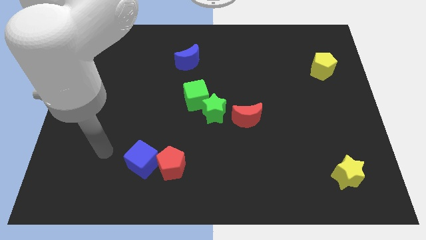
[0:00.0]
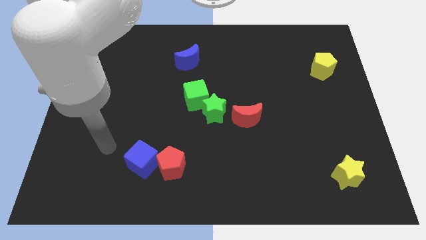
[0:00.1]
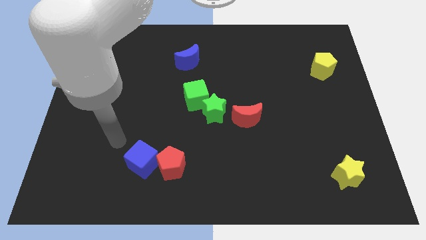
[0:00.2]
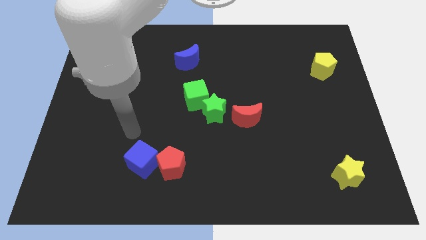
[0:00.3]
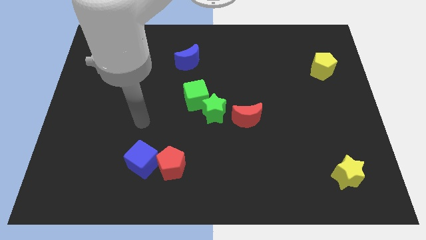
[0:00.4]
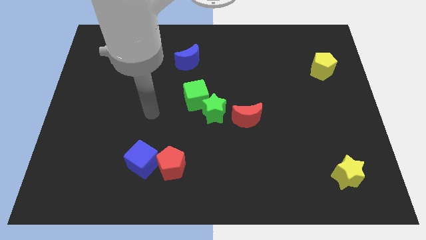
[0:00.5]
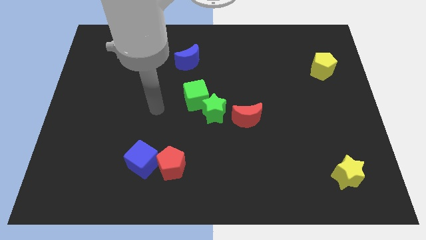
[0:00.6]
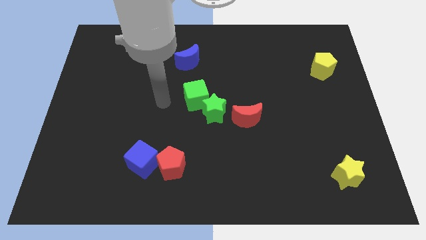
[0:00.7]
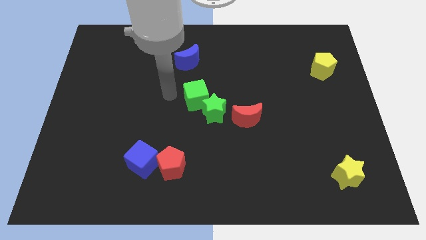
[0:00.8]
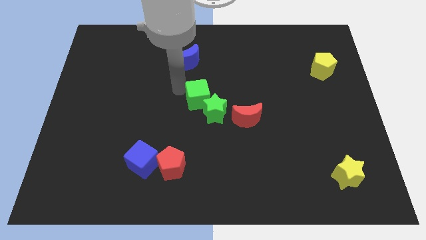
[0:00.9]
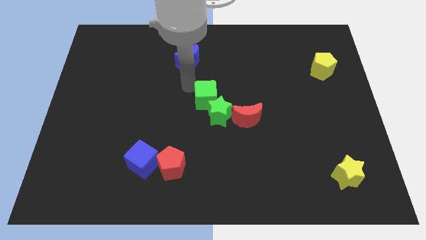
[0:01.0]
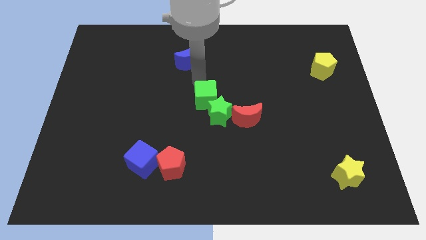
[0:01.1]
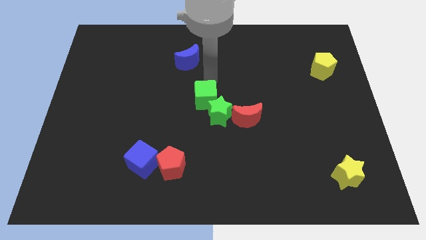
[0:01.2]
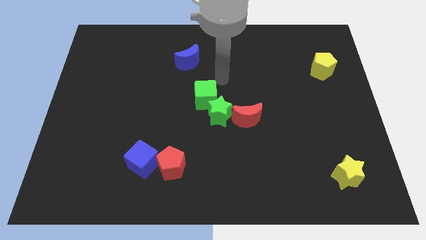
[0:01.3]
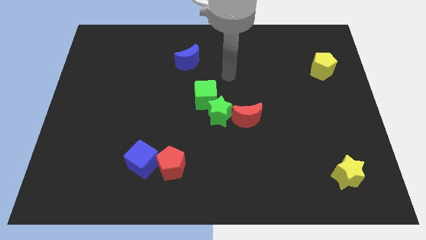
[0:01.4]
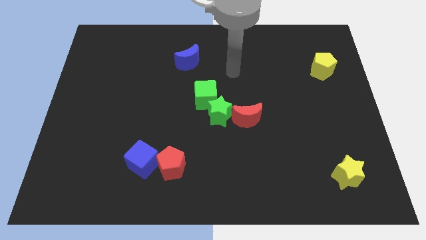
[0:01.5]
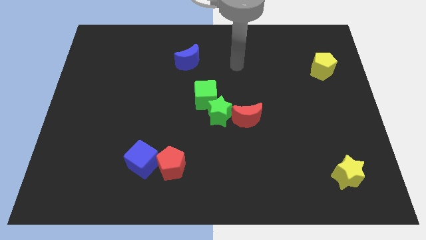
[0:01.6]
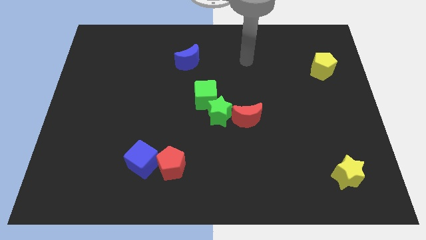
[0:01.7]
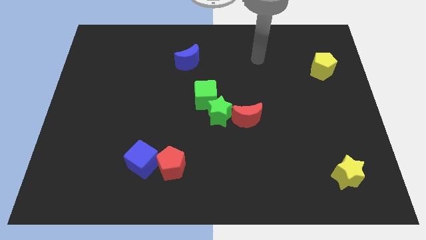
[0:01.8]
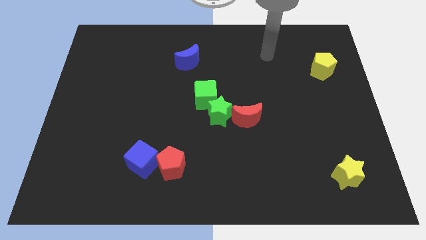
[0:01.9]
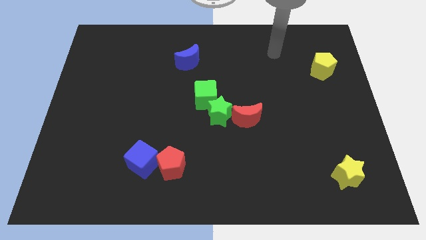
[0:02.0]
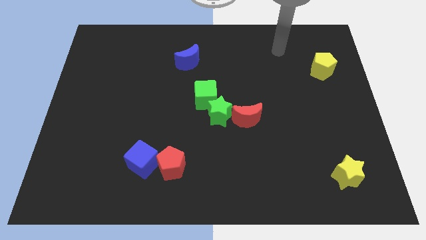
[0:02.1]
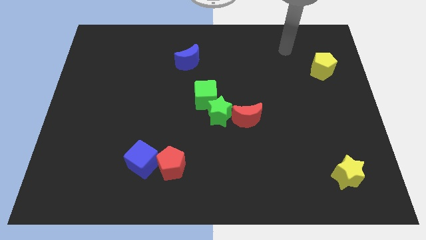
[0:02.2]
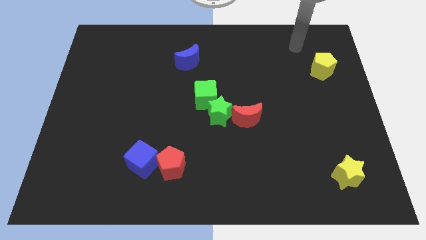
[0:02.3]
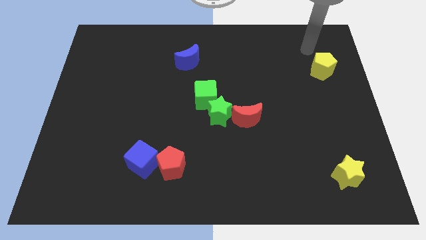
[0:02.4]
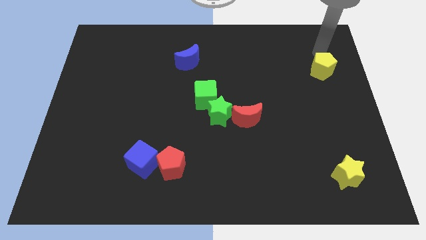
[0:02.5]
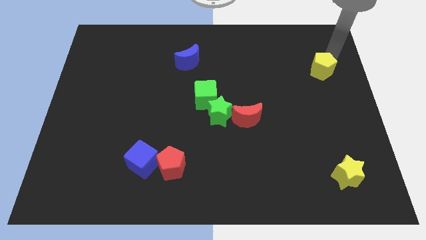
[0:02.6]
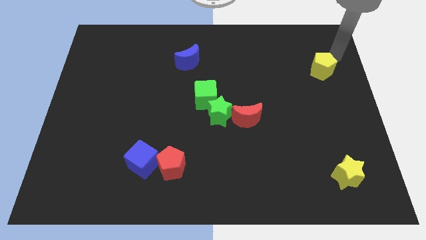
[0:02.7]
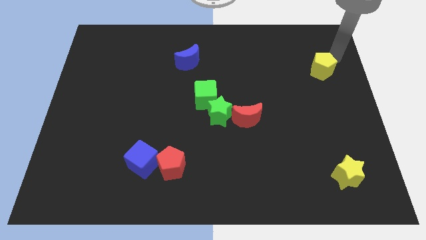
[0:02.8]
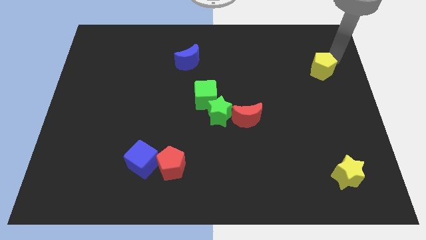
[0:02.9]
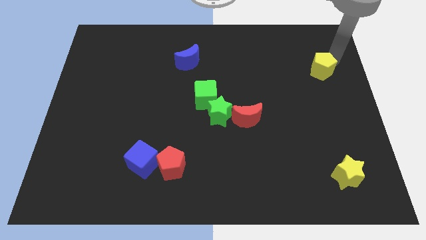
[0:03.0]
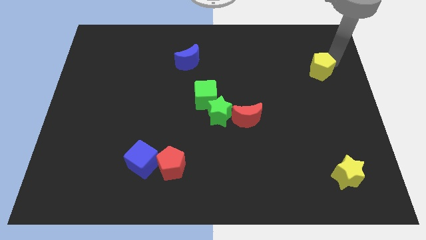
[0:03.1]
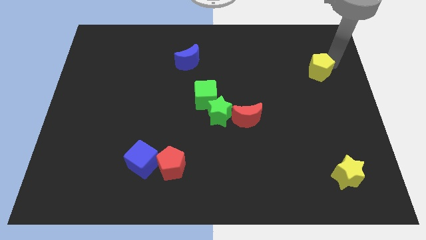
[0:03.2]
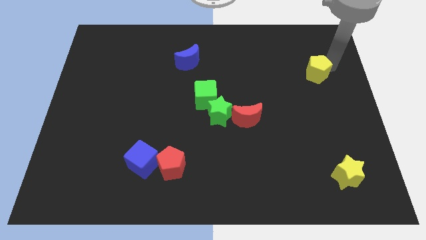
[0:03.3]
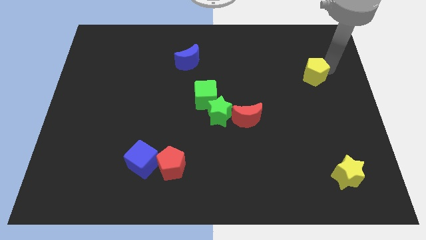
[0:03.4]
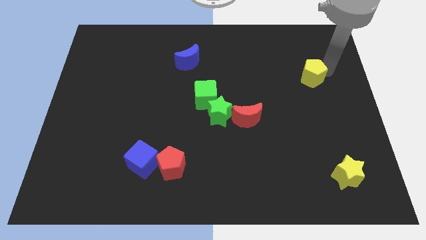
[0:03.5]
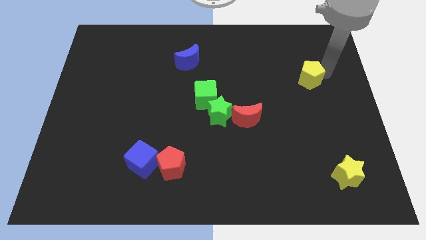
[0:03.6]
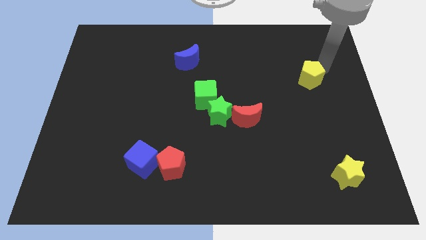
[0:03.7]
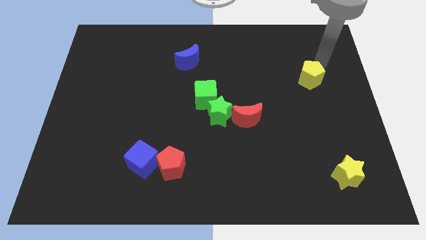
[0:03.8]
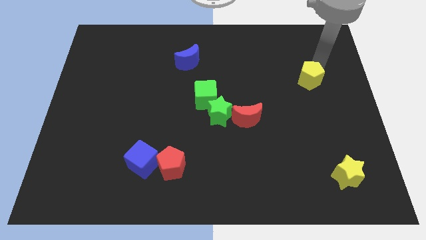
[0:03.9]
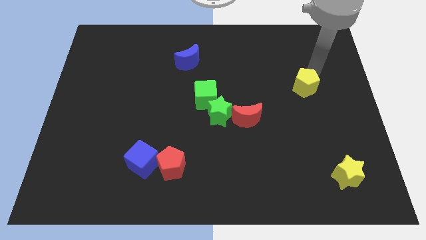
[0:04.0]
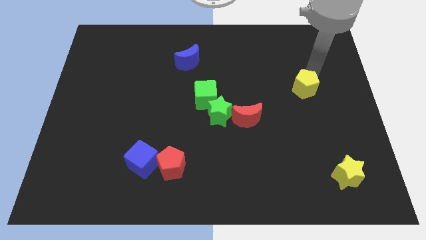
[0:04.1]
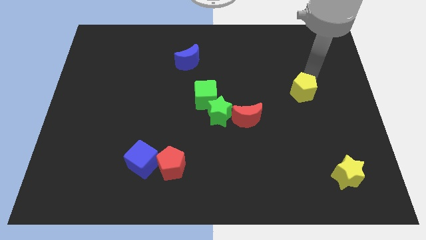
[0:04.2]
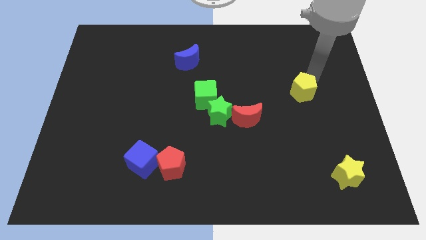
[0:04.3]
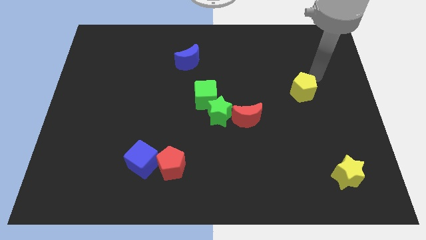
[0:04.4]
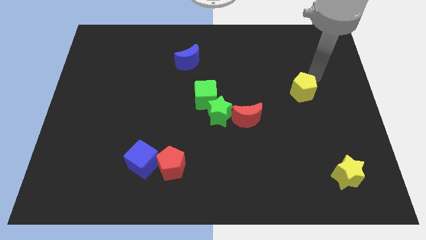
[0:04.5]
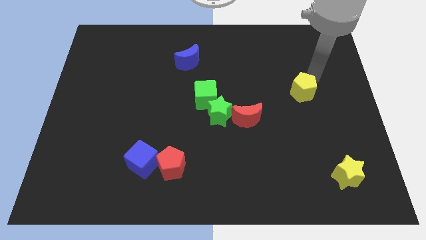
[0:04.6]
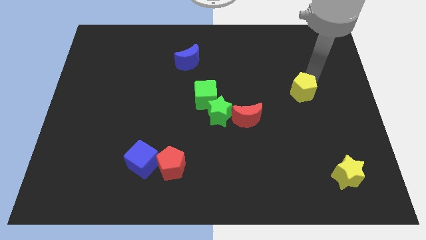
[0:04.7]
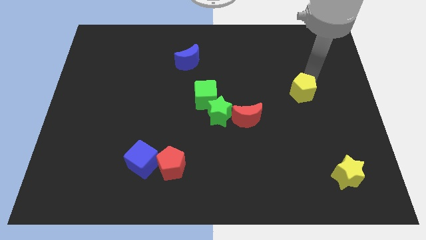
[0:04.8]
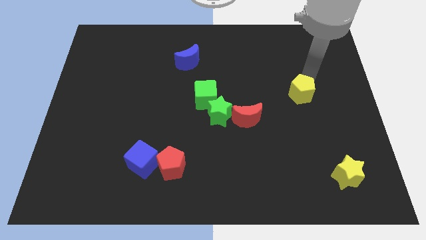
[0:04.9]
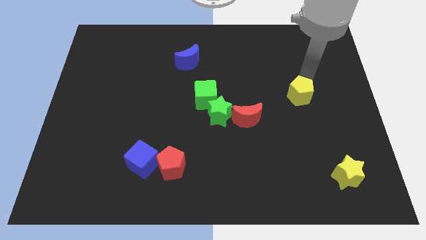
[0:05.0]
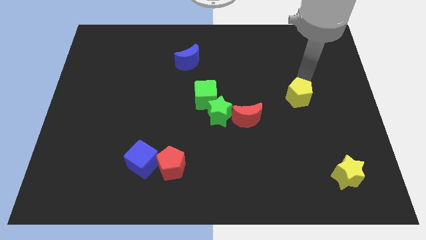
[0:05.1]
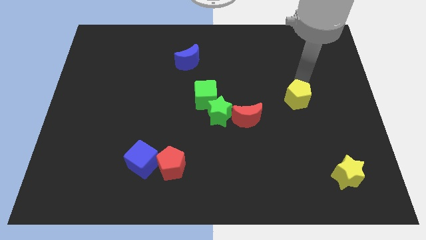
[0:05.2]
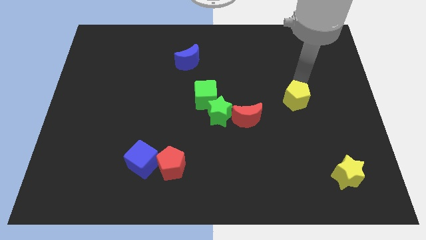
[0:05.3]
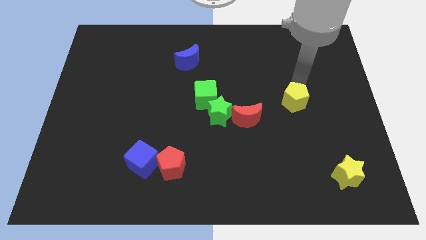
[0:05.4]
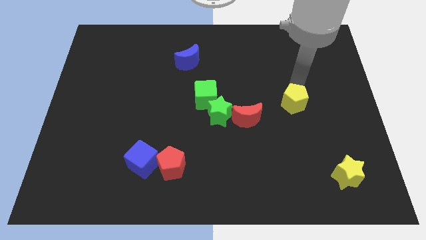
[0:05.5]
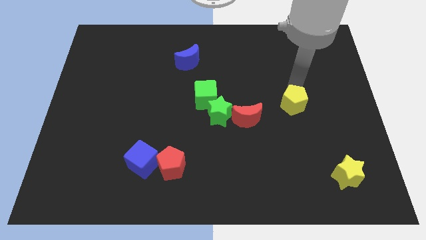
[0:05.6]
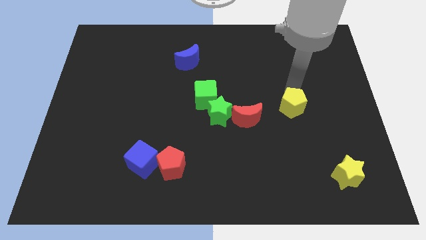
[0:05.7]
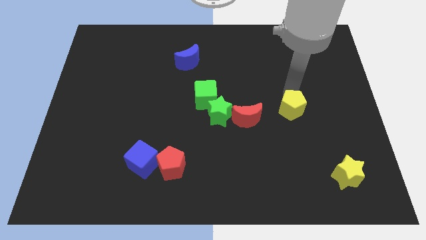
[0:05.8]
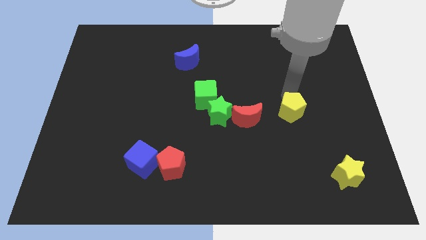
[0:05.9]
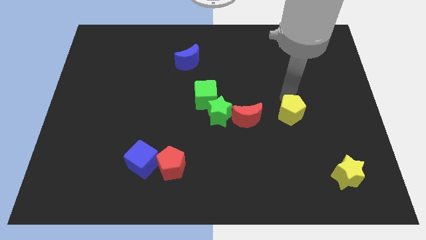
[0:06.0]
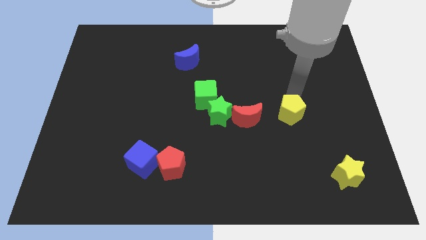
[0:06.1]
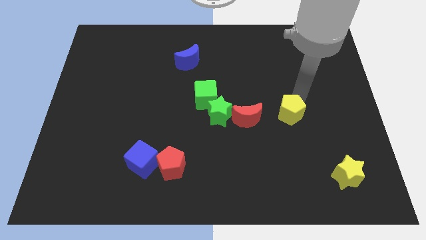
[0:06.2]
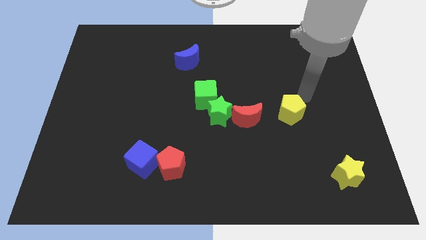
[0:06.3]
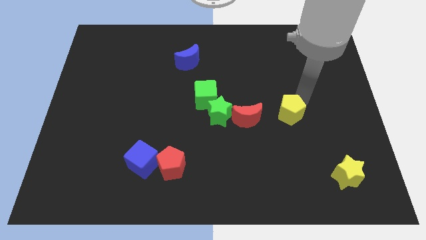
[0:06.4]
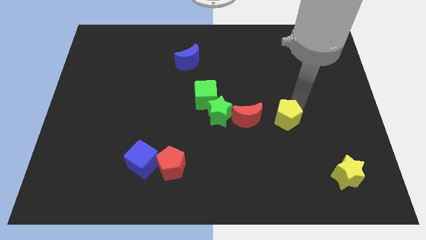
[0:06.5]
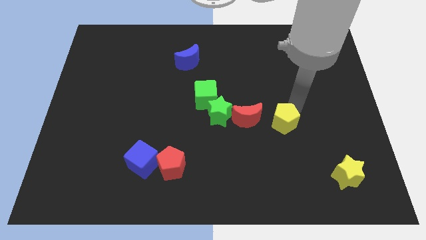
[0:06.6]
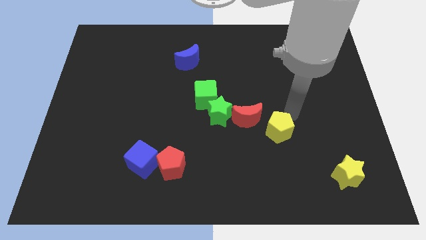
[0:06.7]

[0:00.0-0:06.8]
slide the yellow pentagon down and to the left diagonally

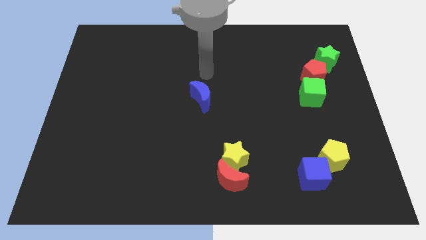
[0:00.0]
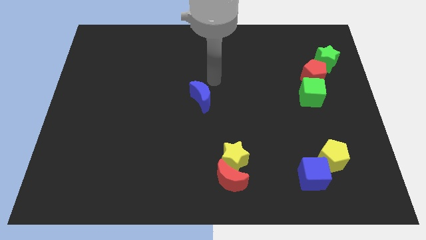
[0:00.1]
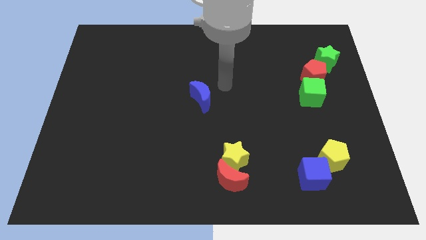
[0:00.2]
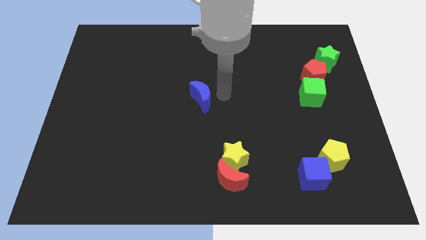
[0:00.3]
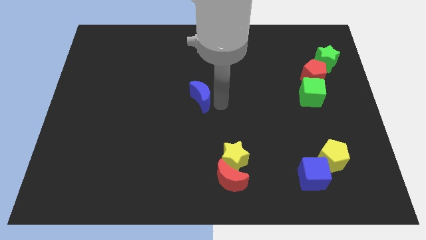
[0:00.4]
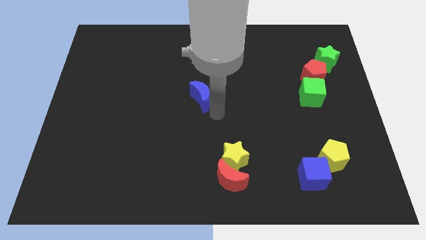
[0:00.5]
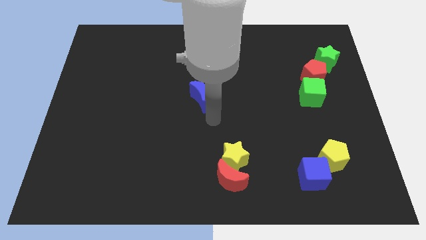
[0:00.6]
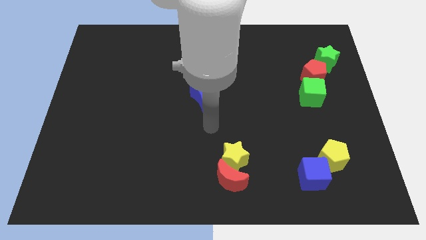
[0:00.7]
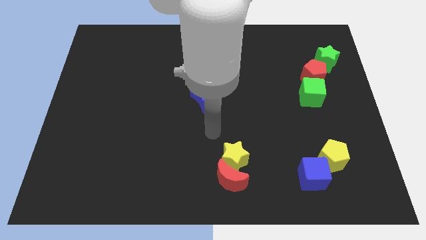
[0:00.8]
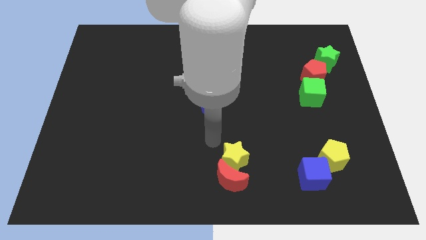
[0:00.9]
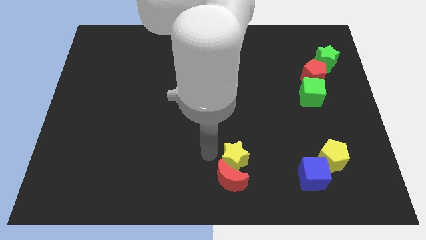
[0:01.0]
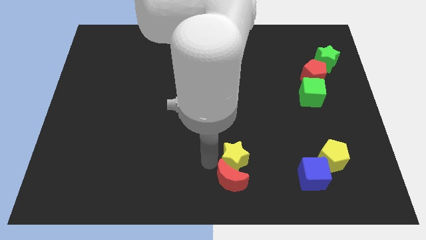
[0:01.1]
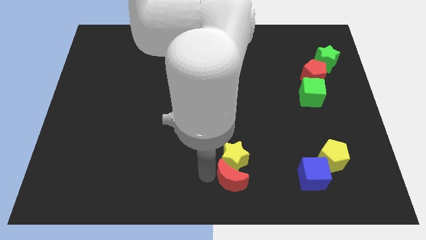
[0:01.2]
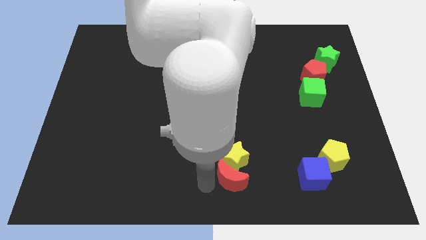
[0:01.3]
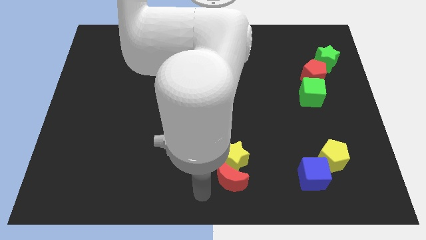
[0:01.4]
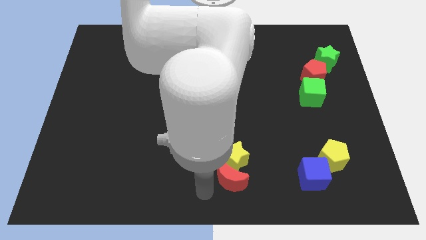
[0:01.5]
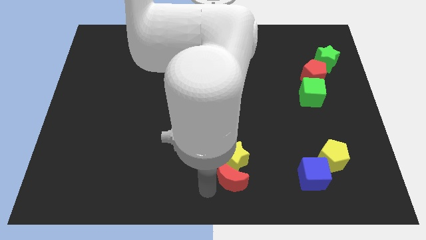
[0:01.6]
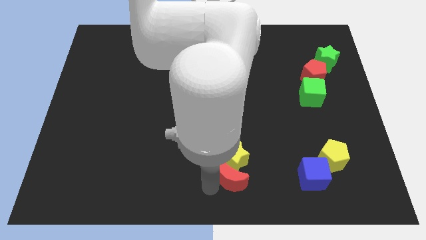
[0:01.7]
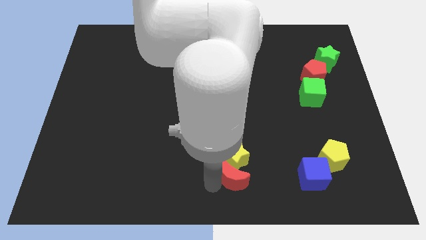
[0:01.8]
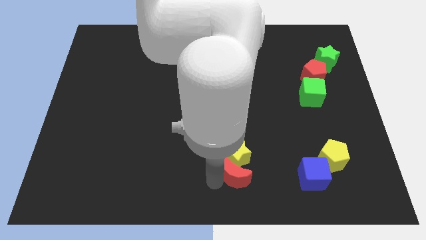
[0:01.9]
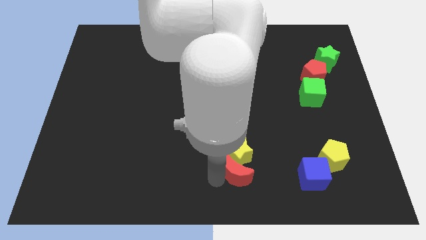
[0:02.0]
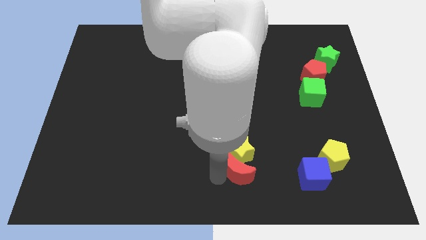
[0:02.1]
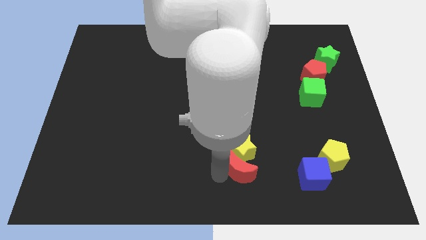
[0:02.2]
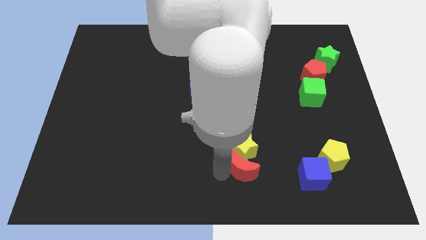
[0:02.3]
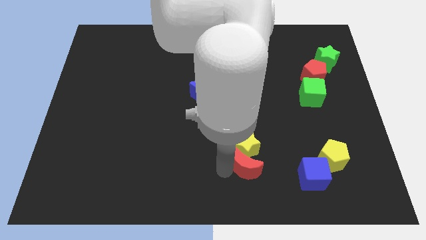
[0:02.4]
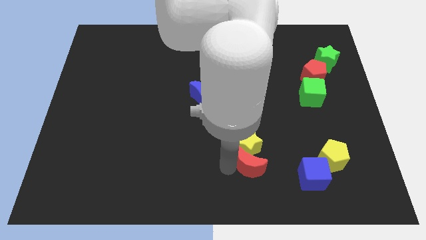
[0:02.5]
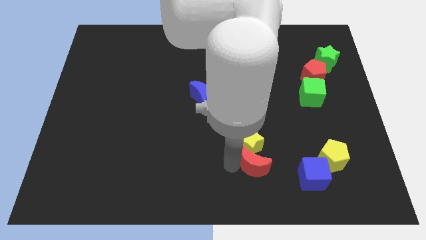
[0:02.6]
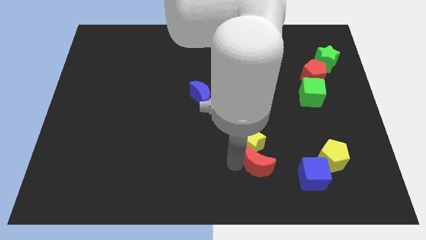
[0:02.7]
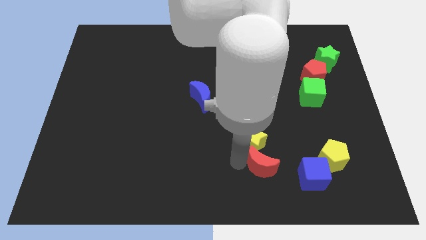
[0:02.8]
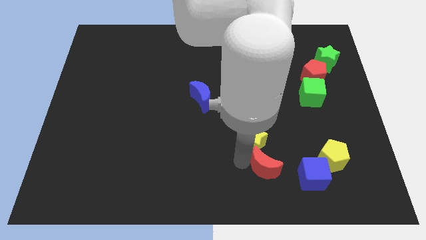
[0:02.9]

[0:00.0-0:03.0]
push the red moon up and right diagonally a little
